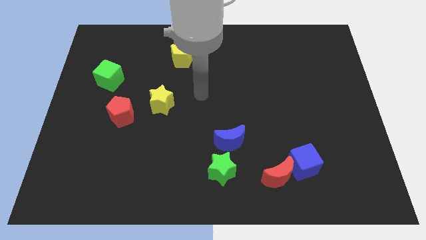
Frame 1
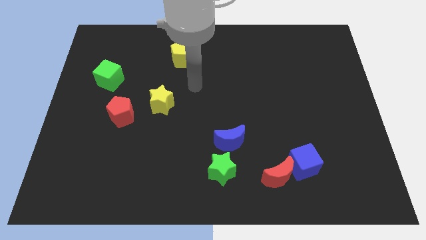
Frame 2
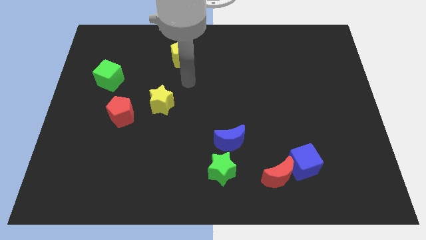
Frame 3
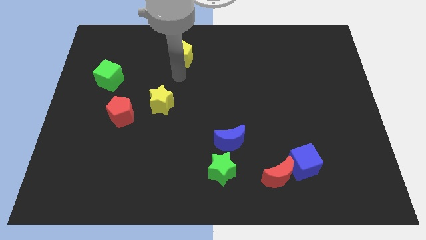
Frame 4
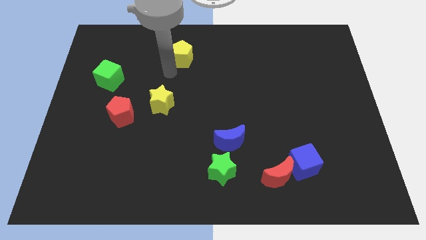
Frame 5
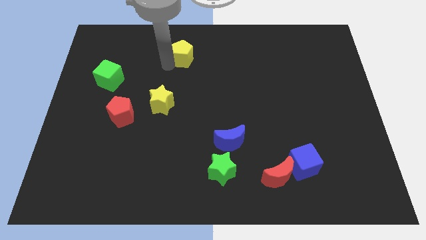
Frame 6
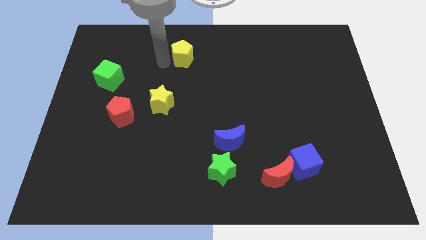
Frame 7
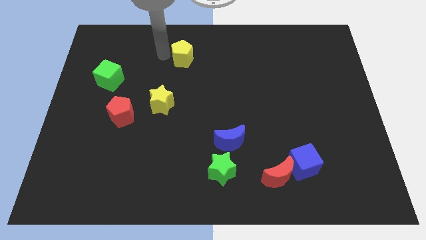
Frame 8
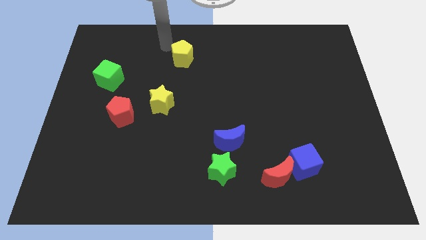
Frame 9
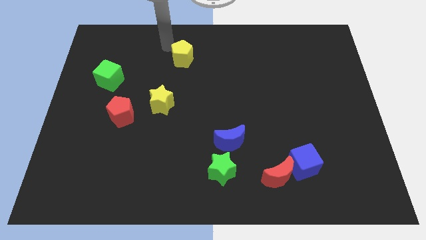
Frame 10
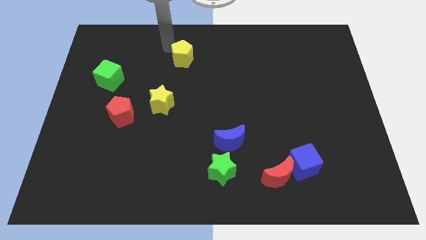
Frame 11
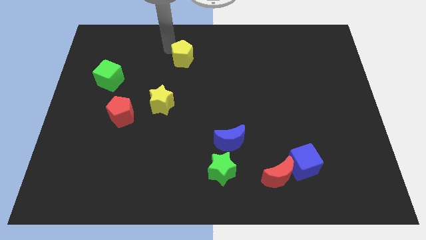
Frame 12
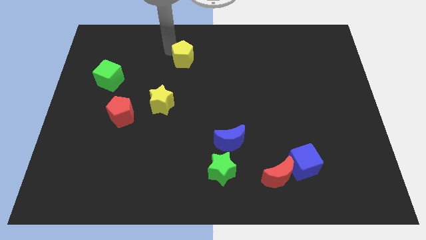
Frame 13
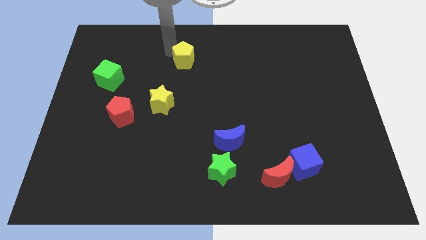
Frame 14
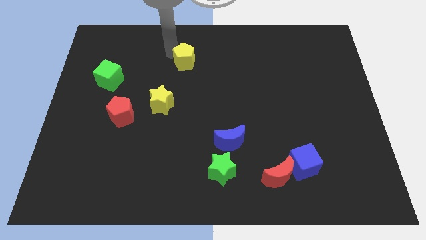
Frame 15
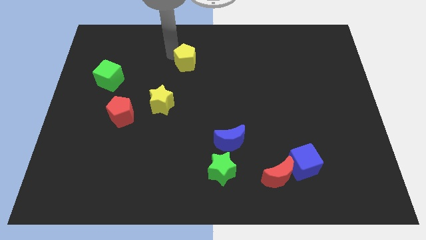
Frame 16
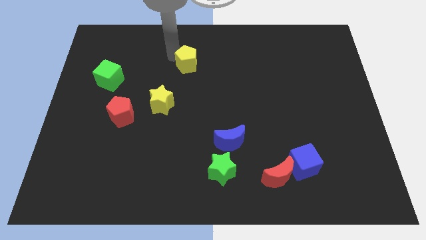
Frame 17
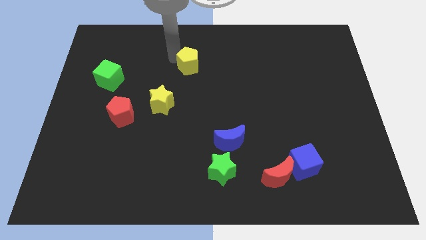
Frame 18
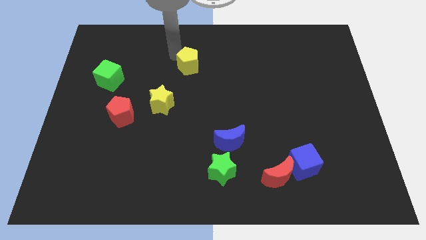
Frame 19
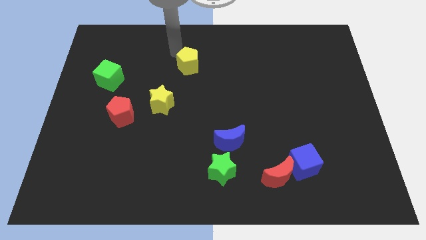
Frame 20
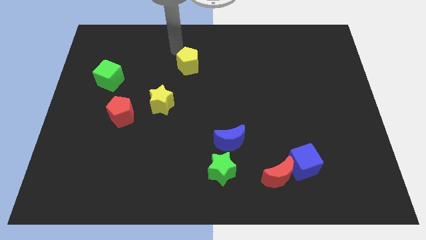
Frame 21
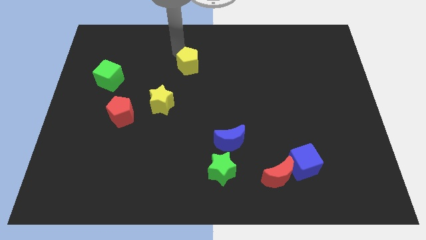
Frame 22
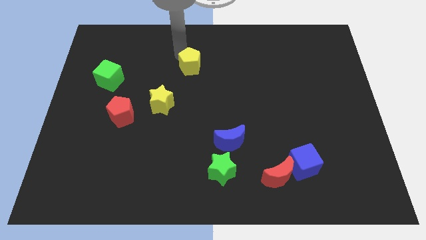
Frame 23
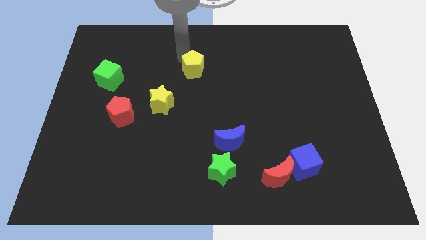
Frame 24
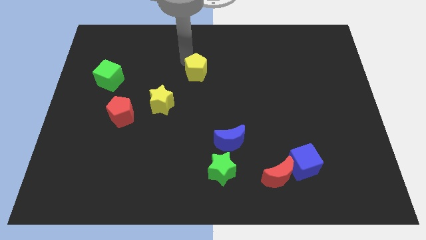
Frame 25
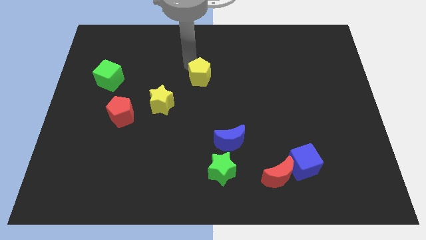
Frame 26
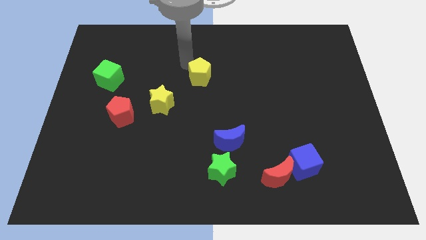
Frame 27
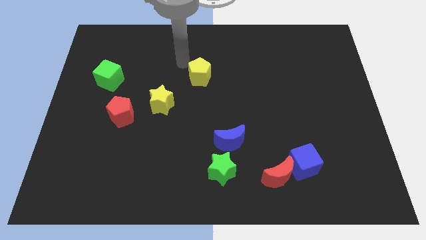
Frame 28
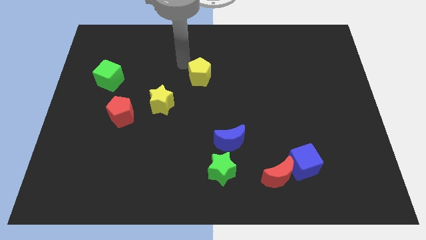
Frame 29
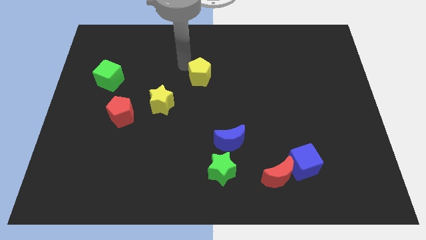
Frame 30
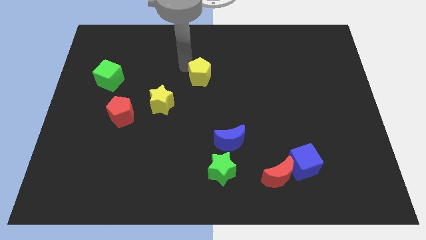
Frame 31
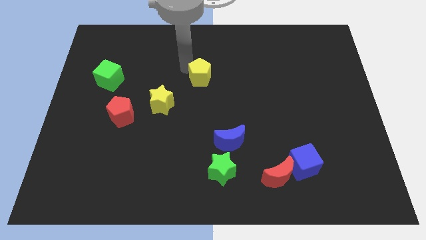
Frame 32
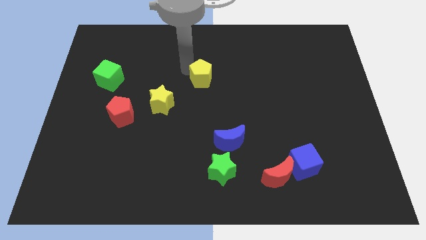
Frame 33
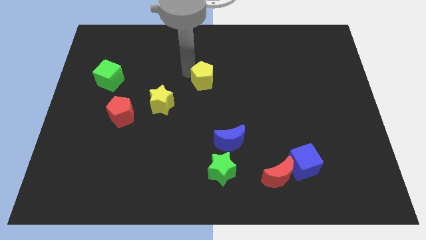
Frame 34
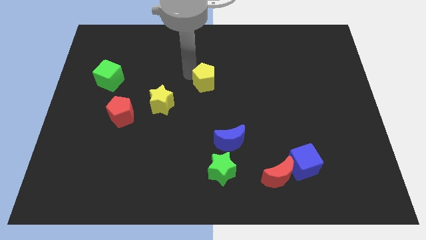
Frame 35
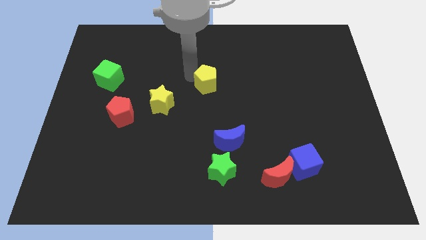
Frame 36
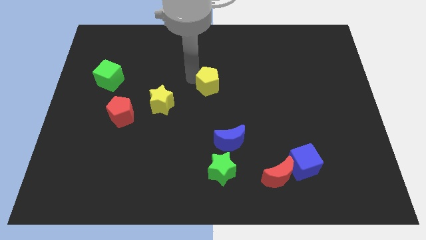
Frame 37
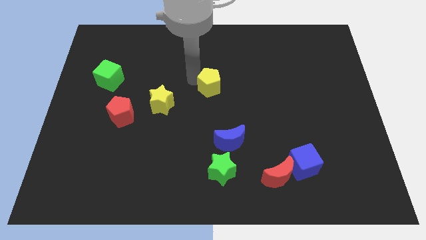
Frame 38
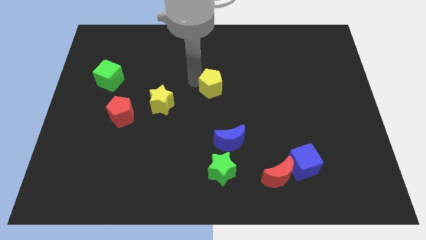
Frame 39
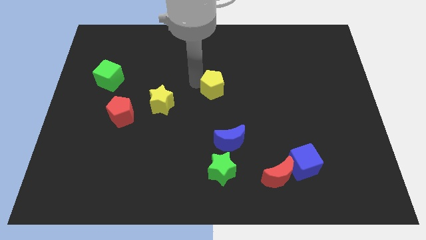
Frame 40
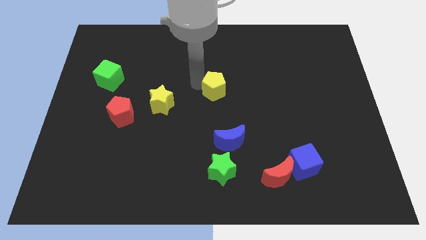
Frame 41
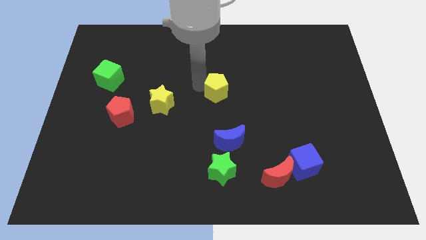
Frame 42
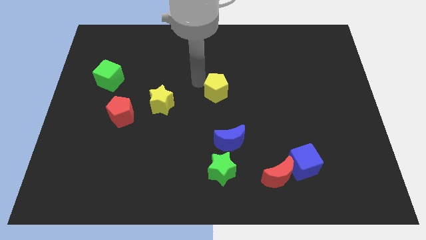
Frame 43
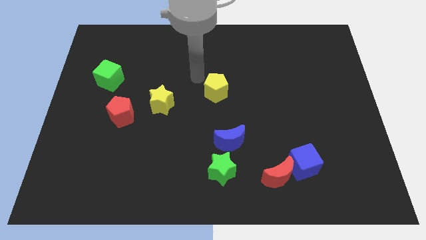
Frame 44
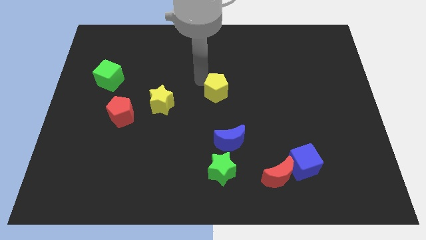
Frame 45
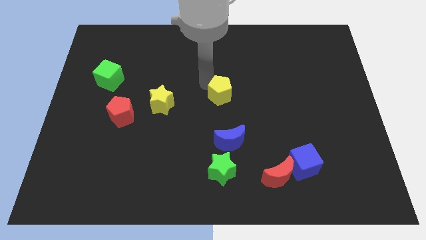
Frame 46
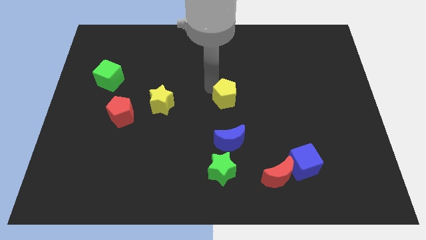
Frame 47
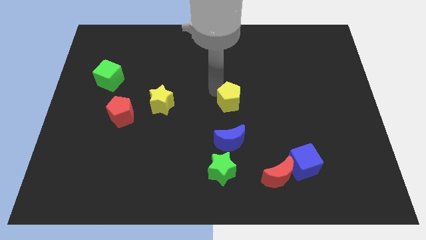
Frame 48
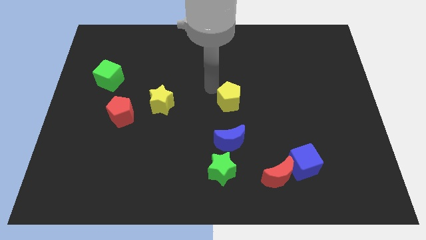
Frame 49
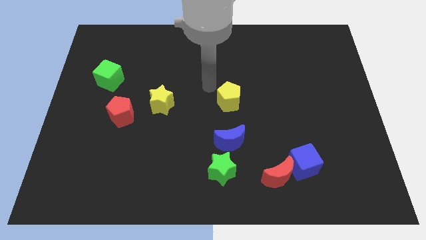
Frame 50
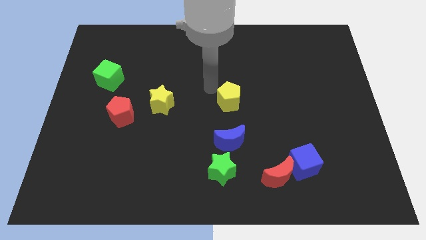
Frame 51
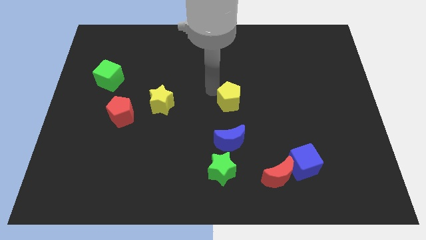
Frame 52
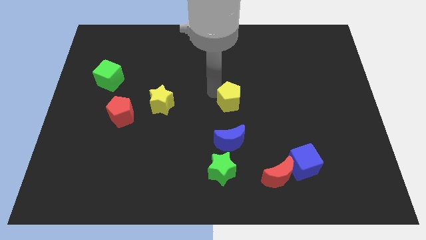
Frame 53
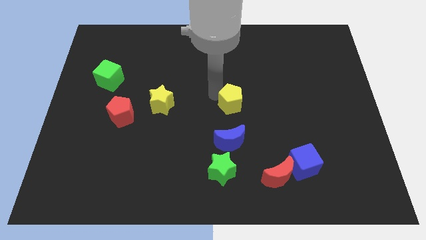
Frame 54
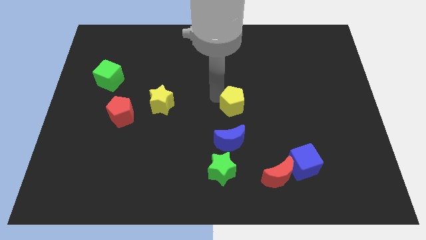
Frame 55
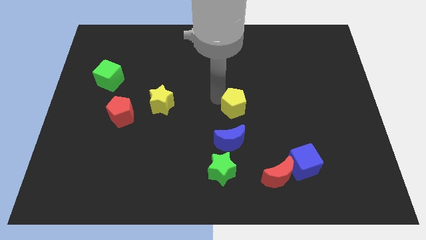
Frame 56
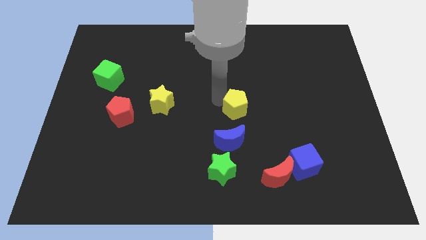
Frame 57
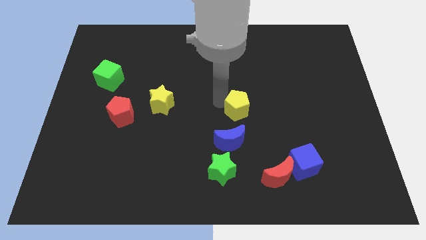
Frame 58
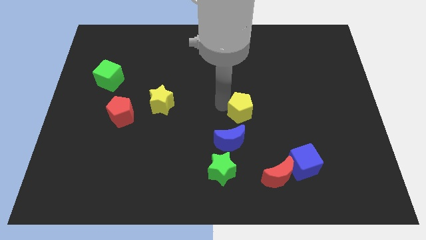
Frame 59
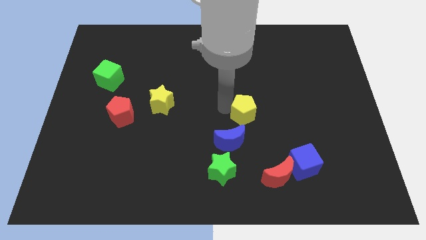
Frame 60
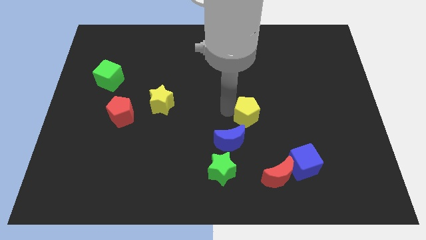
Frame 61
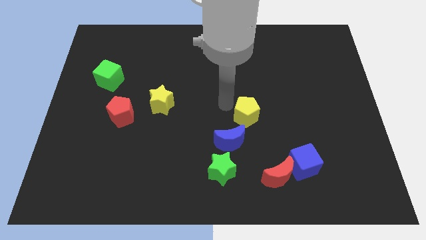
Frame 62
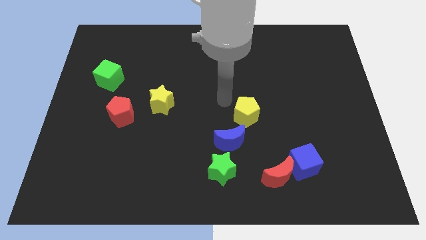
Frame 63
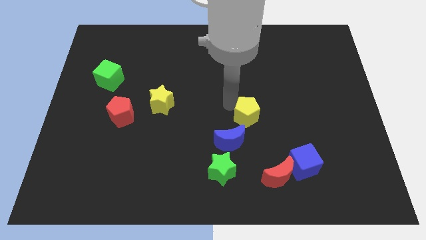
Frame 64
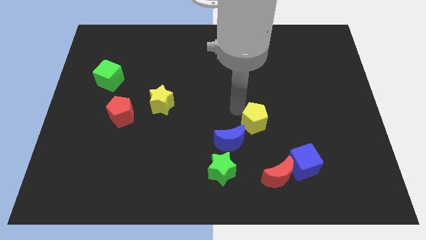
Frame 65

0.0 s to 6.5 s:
put the yellow pentagon to the top side of the red moon

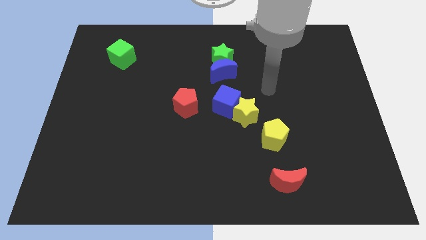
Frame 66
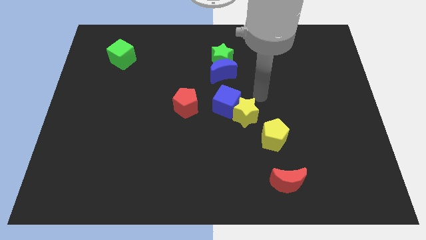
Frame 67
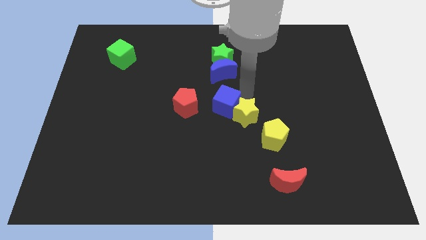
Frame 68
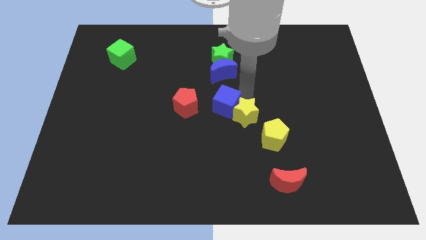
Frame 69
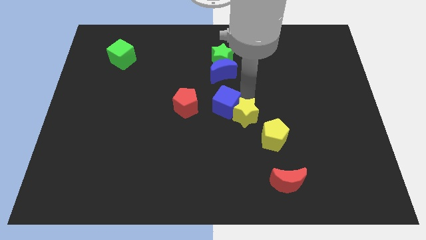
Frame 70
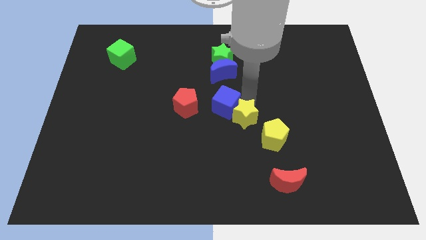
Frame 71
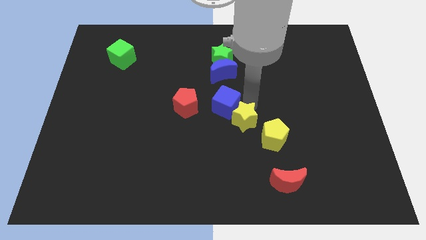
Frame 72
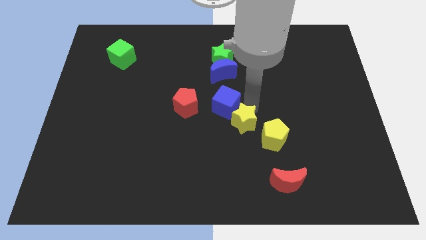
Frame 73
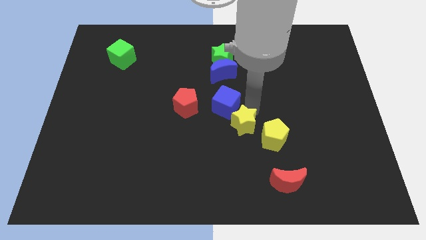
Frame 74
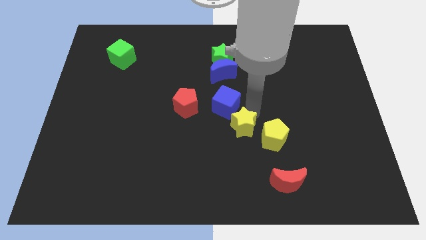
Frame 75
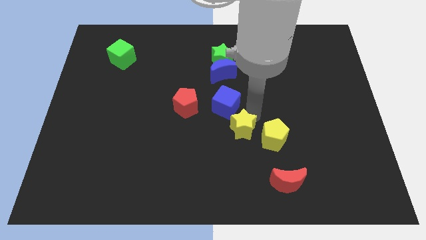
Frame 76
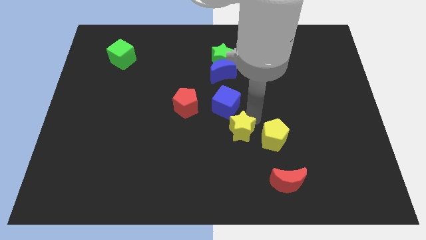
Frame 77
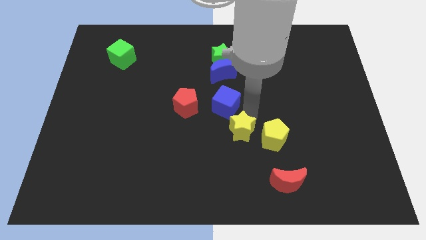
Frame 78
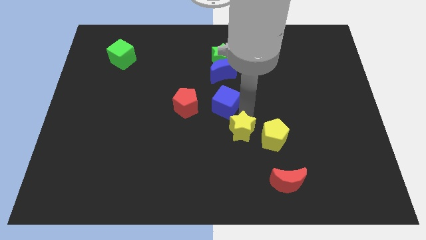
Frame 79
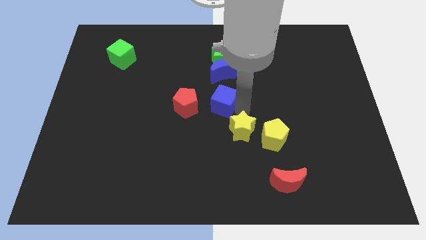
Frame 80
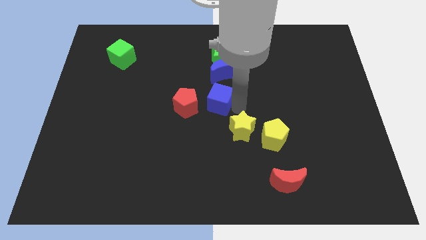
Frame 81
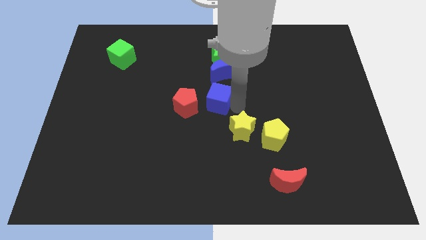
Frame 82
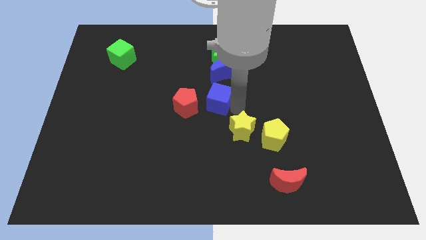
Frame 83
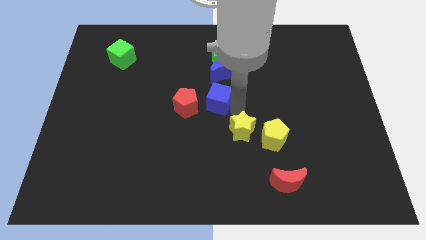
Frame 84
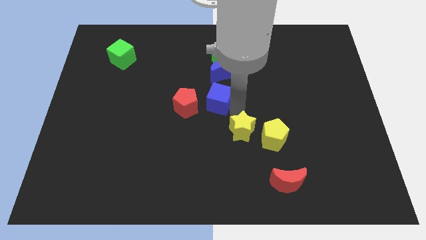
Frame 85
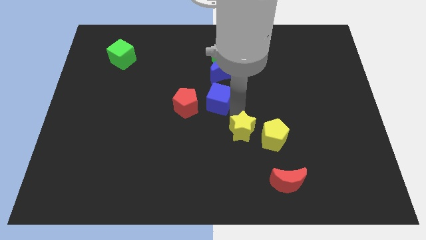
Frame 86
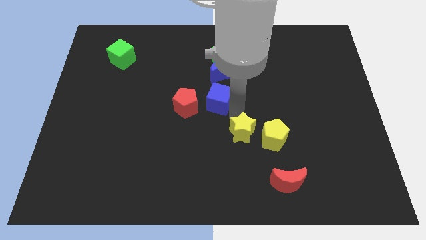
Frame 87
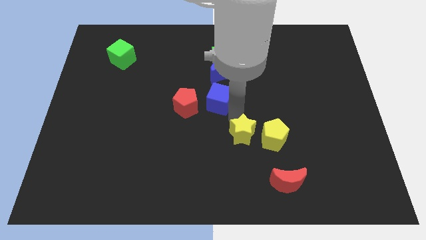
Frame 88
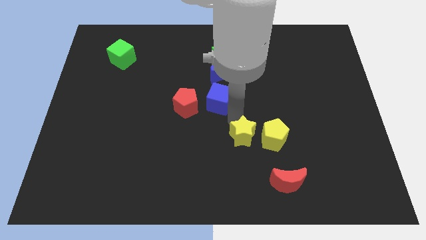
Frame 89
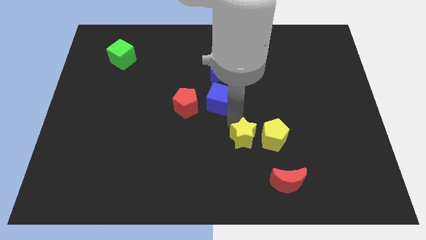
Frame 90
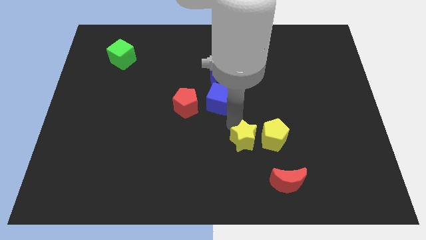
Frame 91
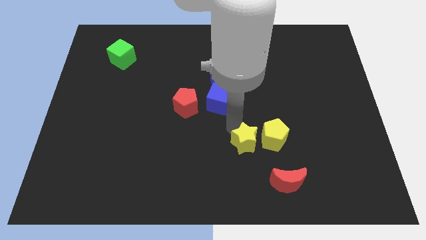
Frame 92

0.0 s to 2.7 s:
push the yellow star diagonally up and to the left of the red moon
